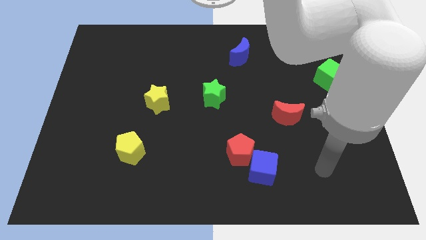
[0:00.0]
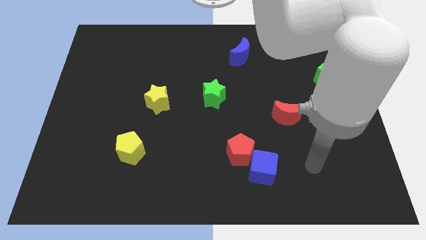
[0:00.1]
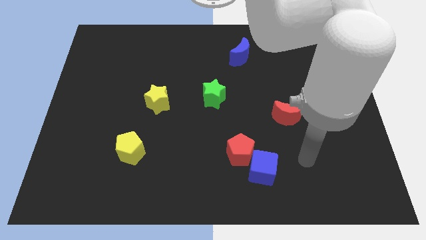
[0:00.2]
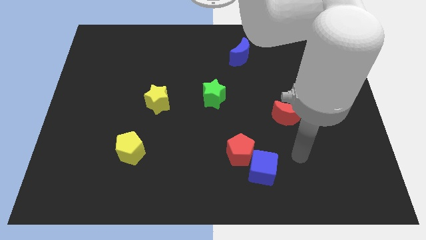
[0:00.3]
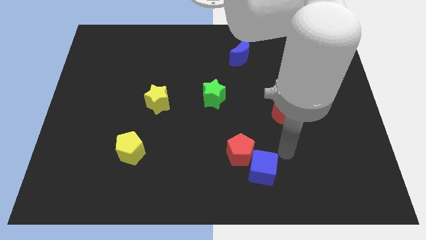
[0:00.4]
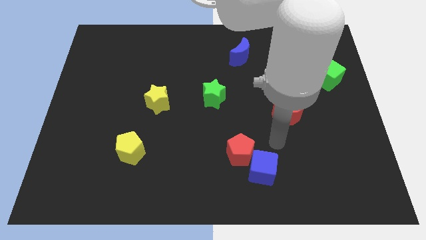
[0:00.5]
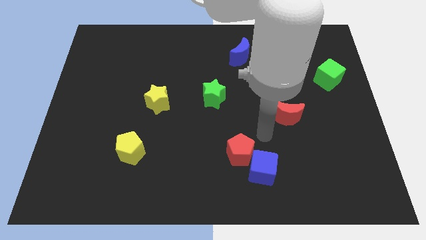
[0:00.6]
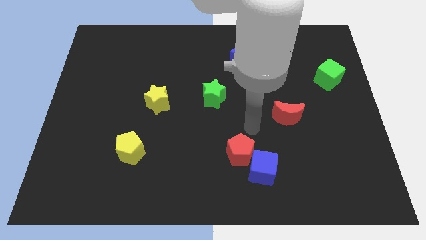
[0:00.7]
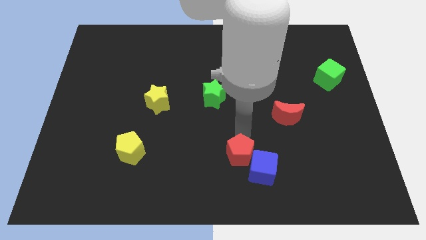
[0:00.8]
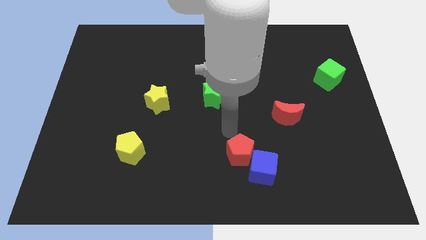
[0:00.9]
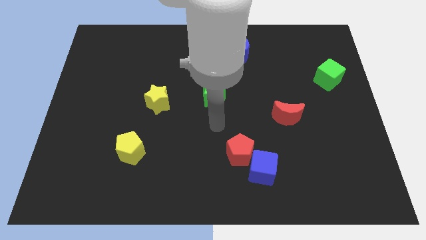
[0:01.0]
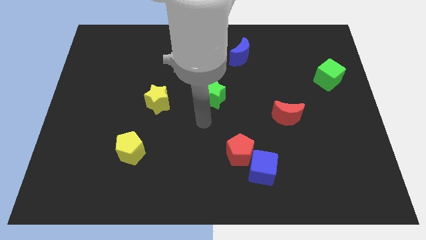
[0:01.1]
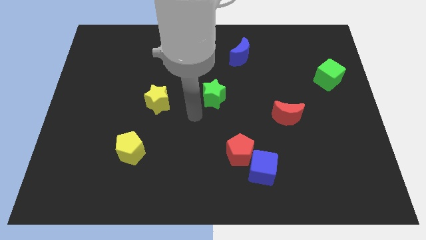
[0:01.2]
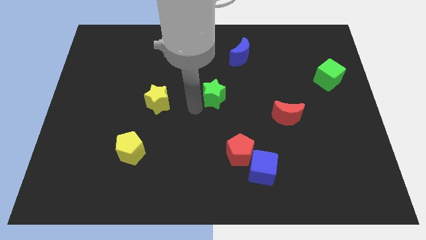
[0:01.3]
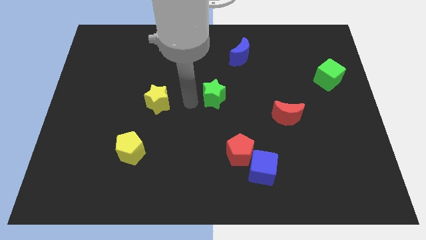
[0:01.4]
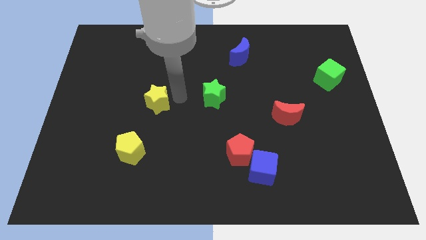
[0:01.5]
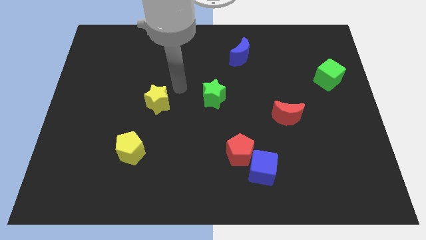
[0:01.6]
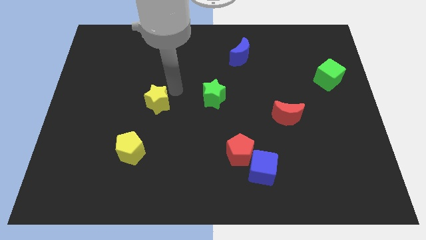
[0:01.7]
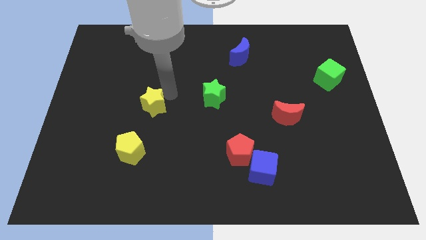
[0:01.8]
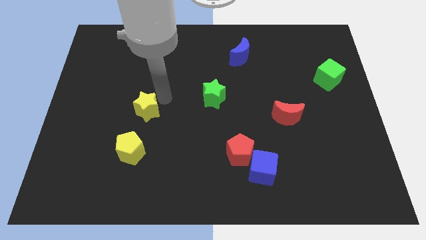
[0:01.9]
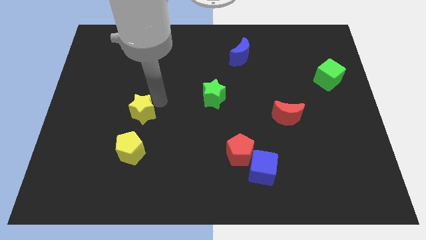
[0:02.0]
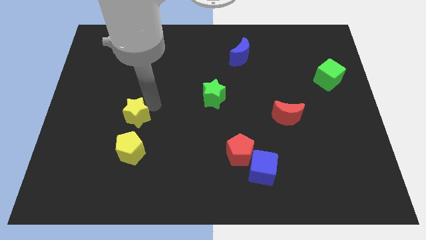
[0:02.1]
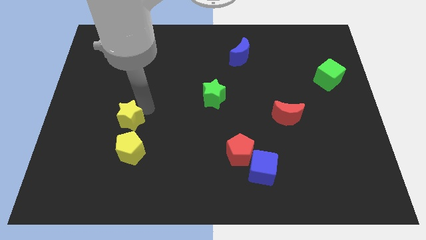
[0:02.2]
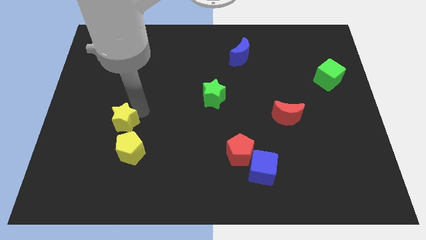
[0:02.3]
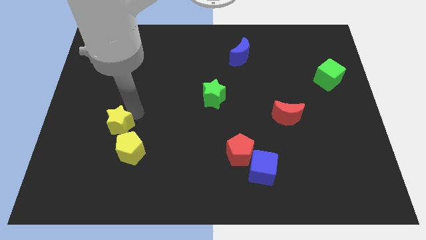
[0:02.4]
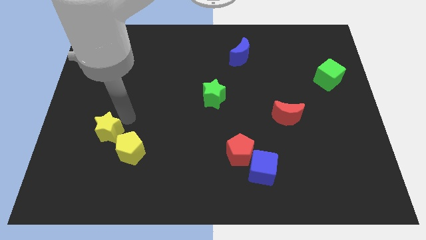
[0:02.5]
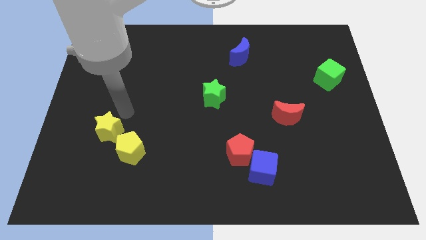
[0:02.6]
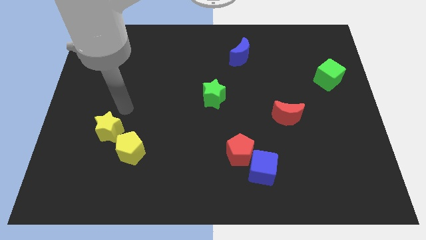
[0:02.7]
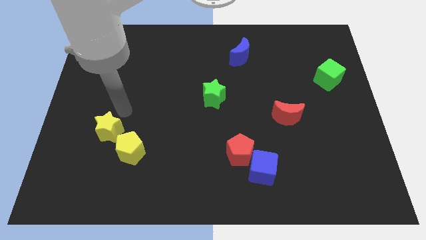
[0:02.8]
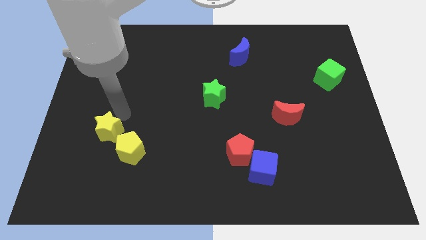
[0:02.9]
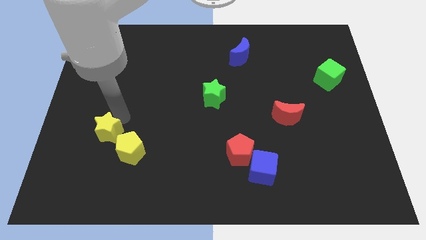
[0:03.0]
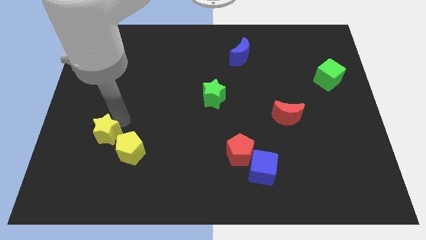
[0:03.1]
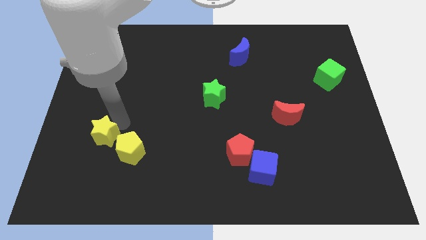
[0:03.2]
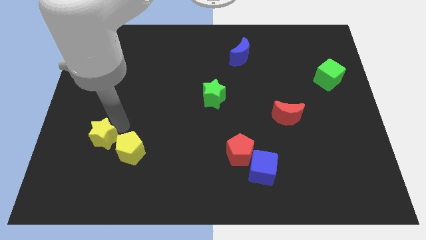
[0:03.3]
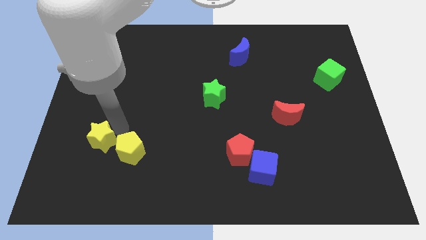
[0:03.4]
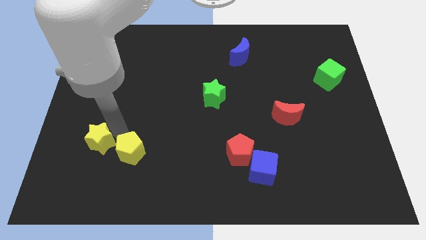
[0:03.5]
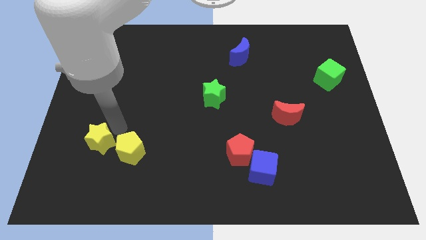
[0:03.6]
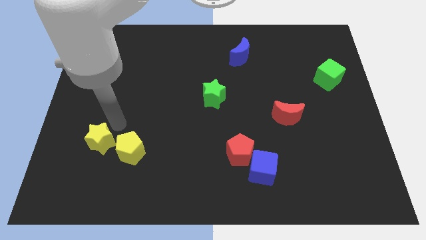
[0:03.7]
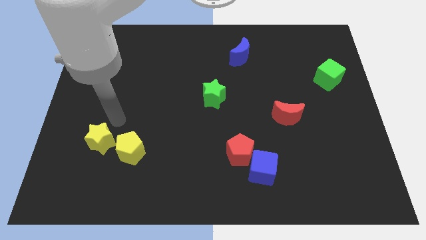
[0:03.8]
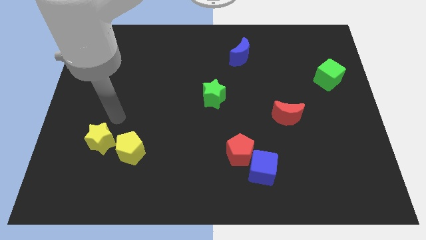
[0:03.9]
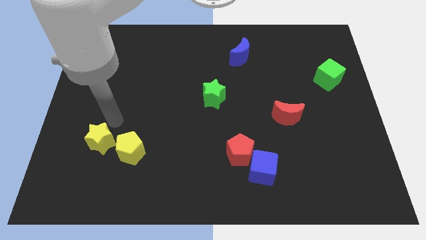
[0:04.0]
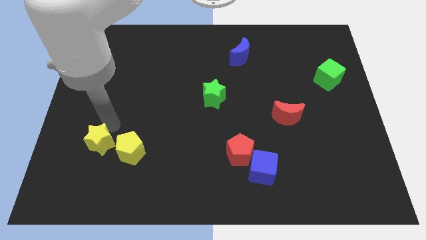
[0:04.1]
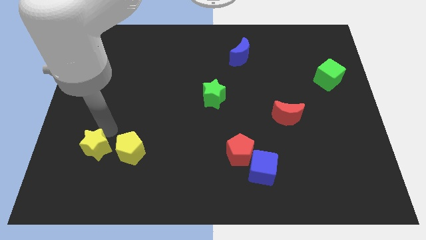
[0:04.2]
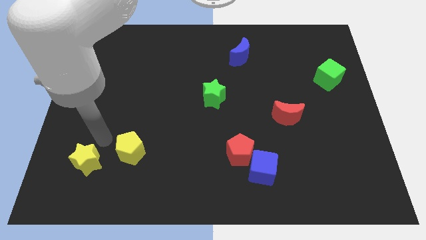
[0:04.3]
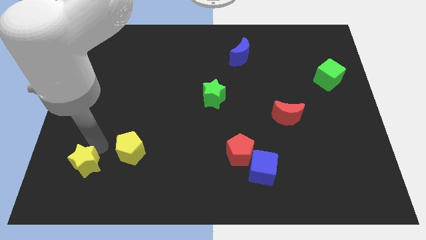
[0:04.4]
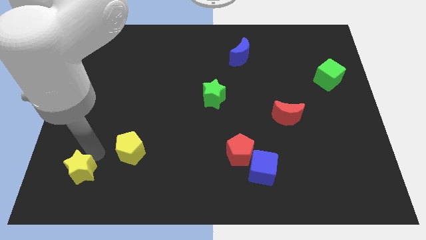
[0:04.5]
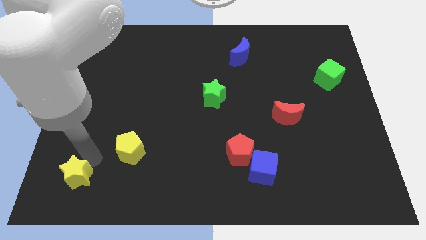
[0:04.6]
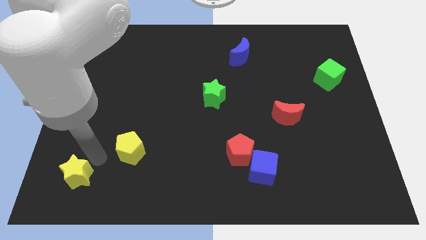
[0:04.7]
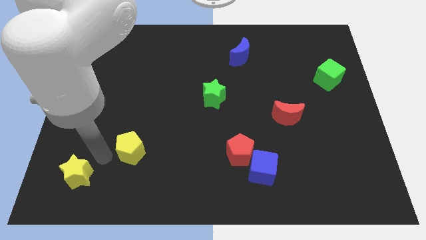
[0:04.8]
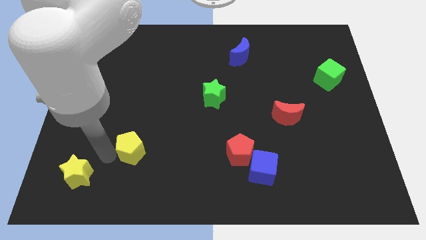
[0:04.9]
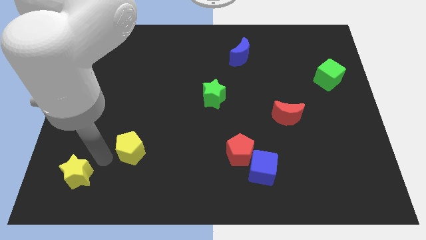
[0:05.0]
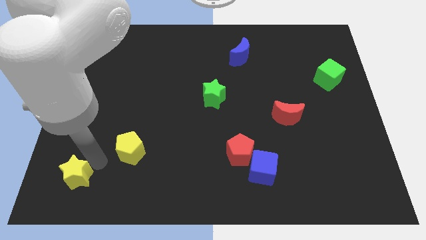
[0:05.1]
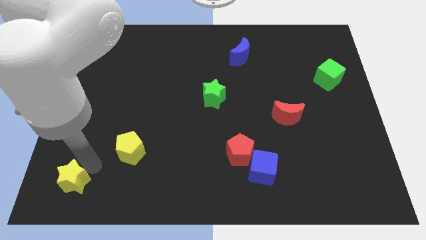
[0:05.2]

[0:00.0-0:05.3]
push the yellow star to the bottom left

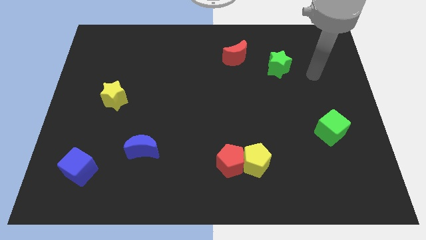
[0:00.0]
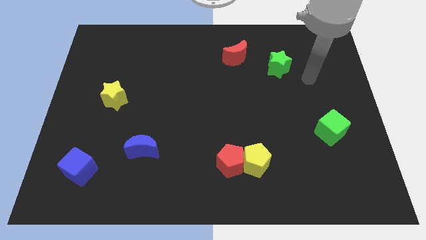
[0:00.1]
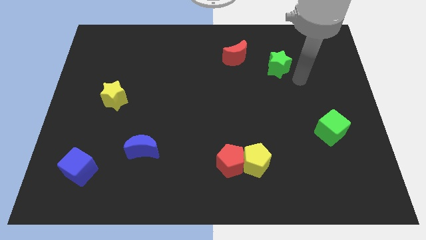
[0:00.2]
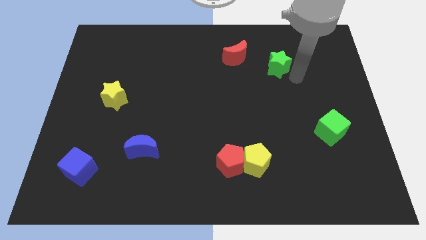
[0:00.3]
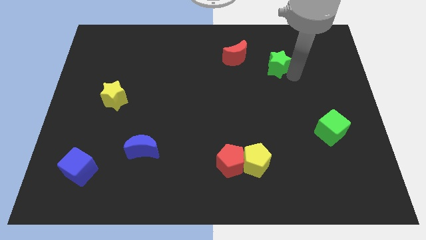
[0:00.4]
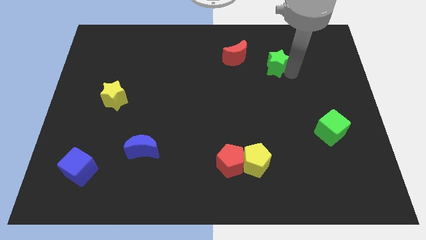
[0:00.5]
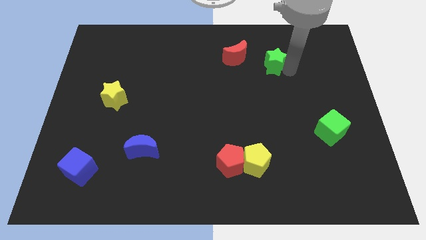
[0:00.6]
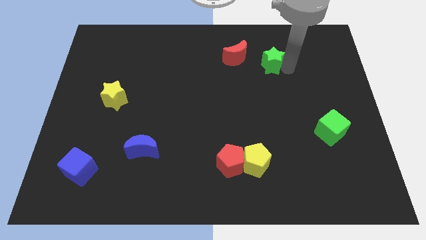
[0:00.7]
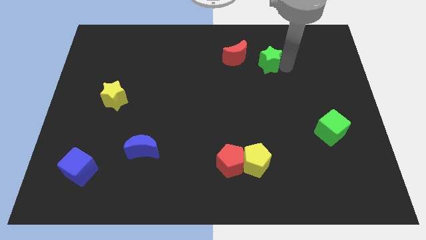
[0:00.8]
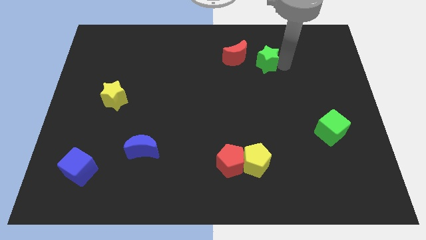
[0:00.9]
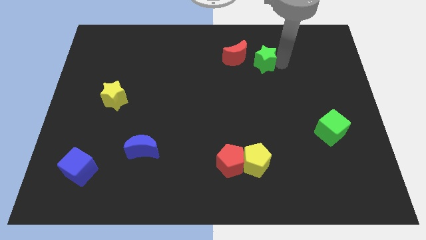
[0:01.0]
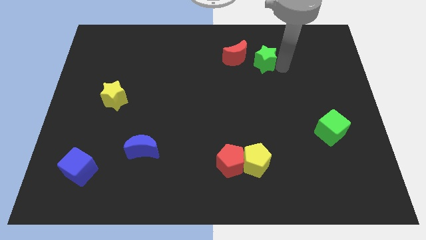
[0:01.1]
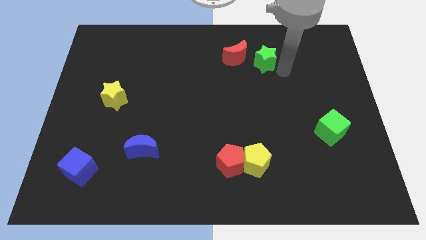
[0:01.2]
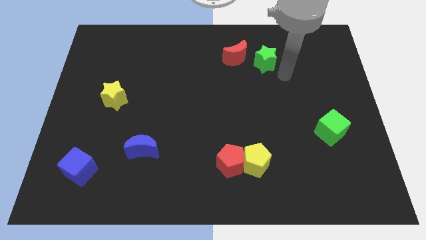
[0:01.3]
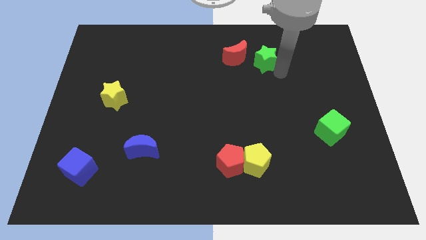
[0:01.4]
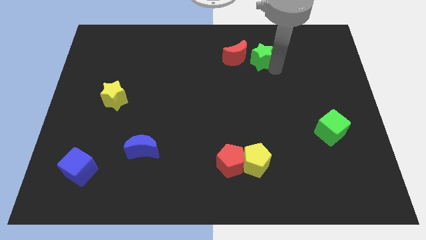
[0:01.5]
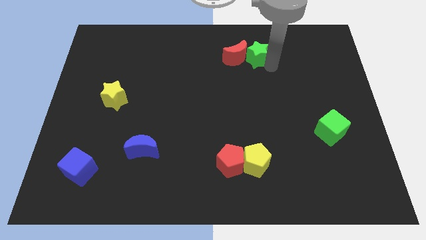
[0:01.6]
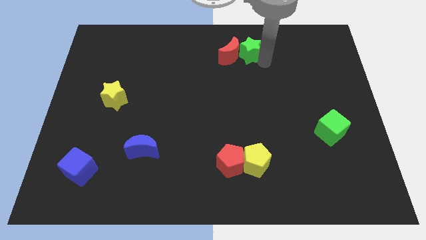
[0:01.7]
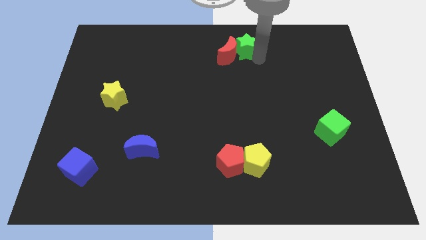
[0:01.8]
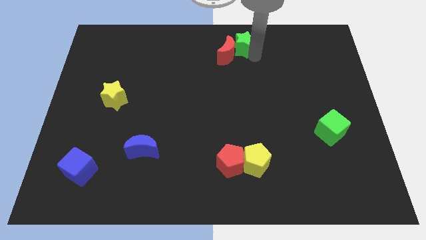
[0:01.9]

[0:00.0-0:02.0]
push the green star to the top

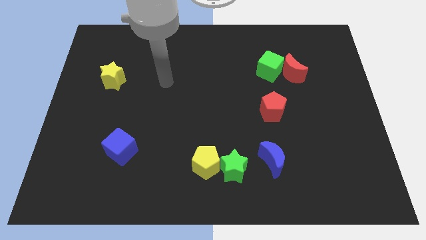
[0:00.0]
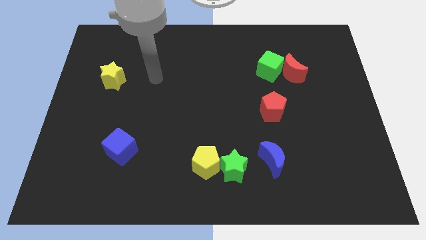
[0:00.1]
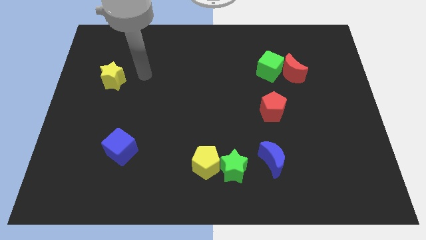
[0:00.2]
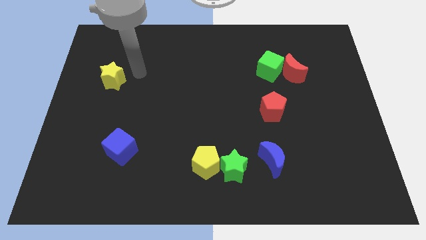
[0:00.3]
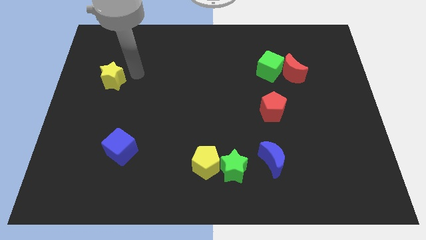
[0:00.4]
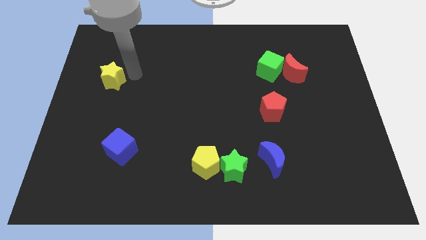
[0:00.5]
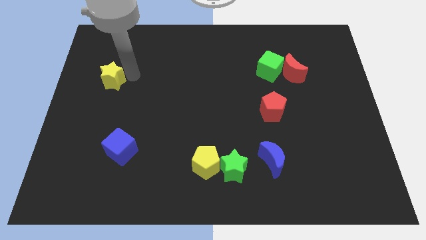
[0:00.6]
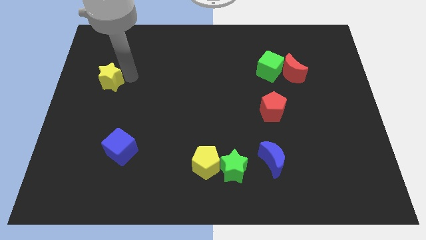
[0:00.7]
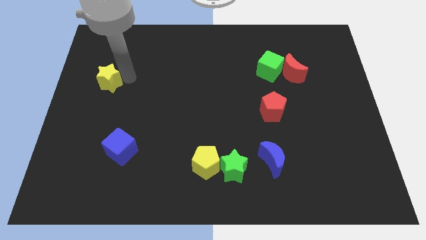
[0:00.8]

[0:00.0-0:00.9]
put the yellow star to the left side of the board
